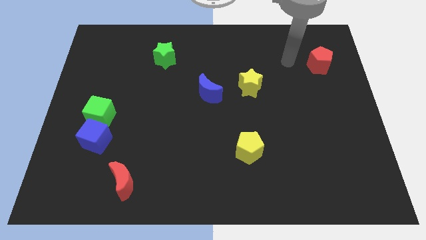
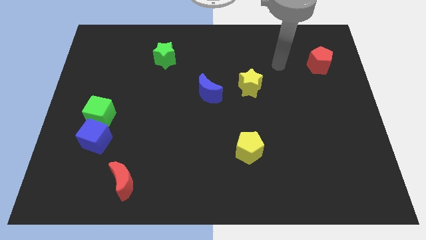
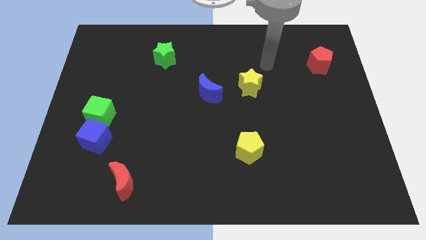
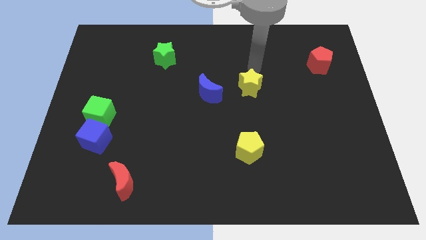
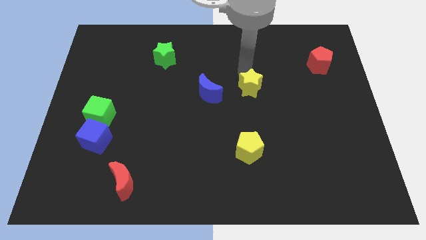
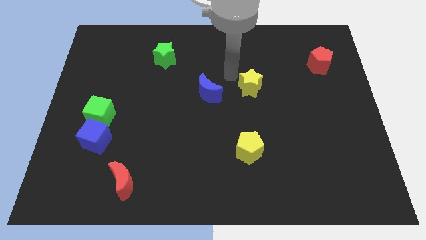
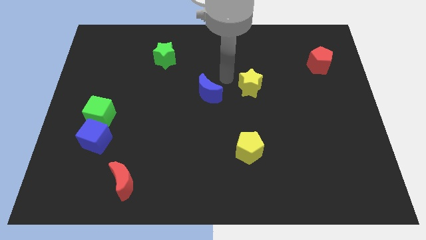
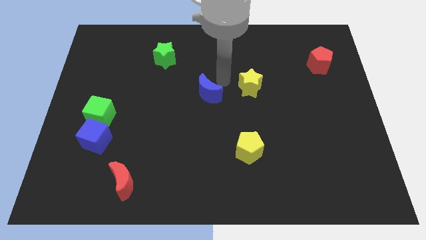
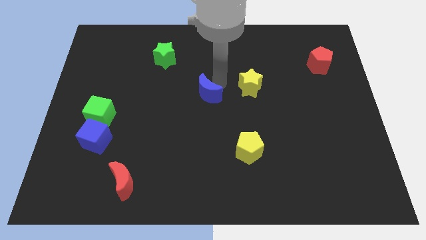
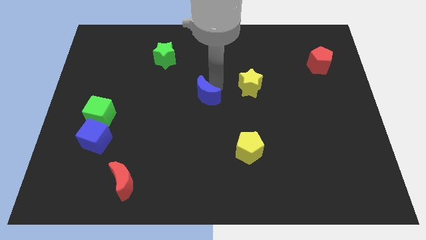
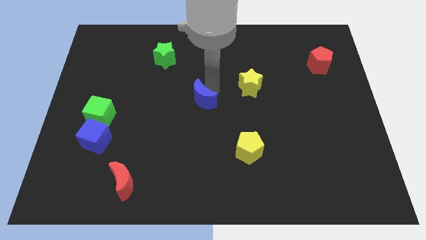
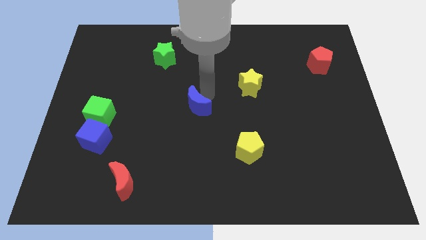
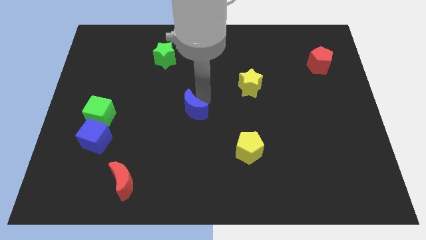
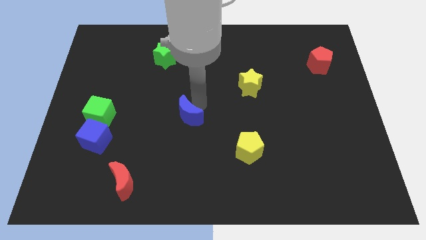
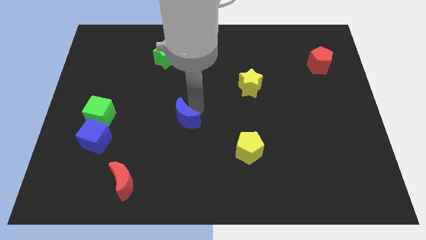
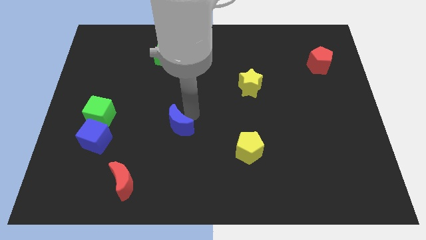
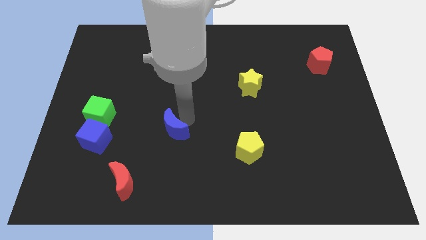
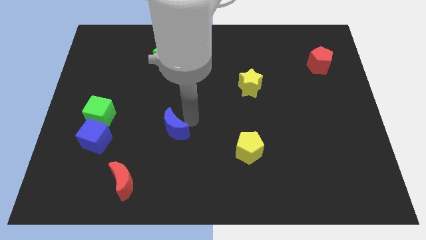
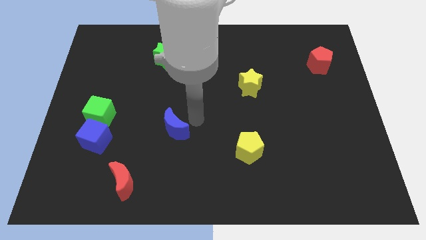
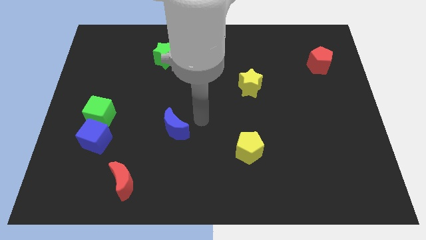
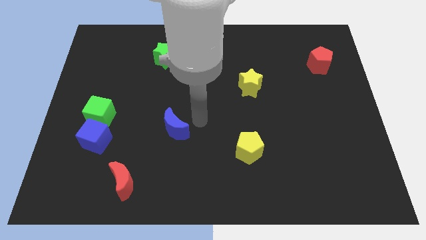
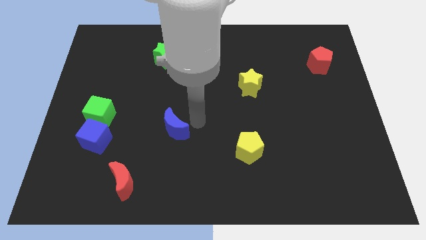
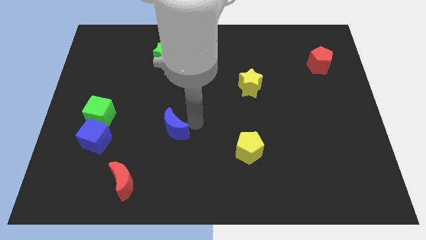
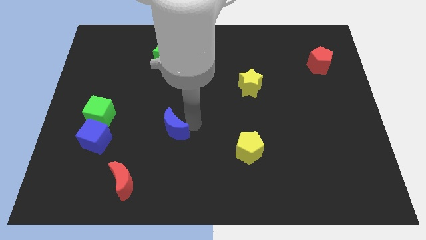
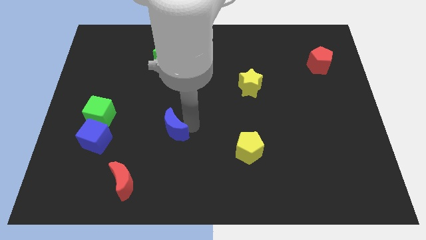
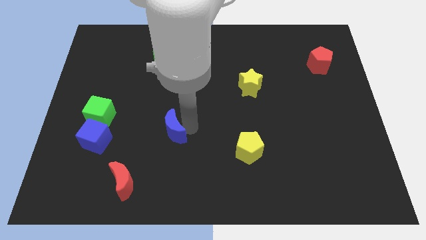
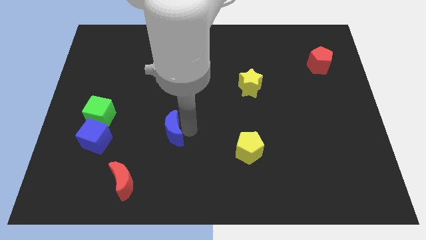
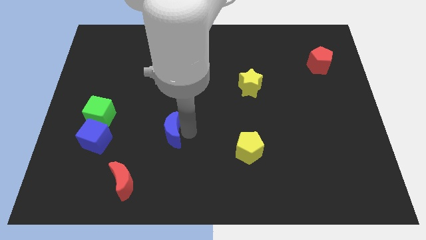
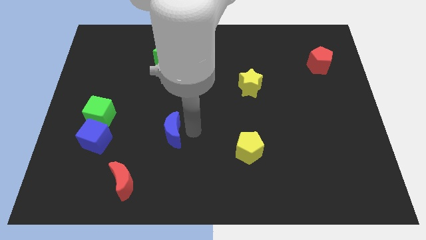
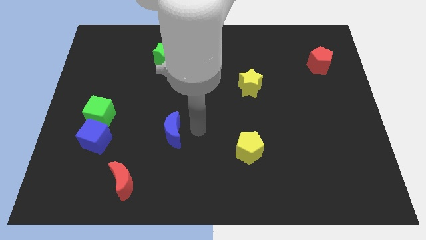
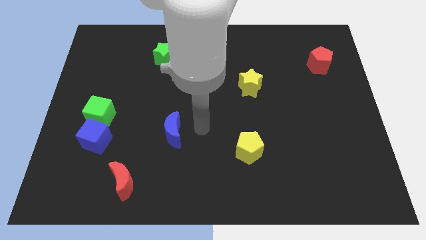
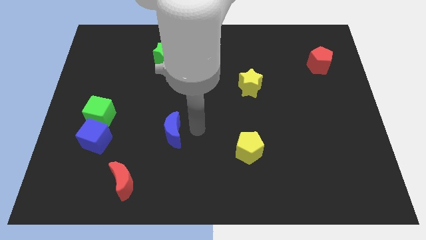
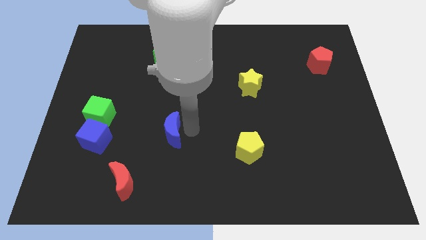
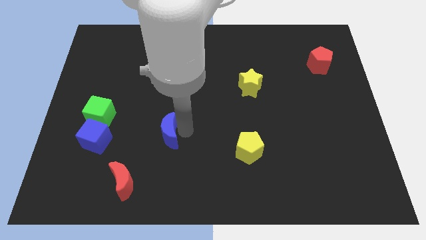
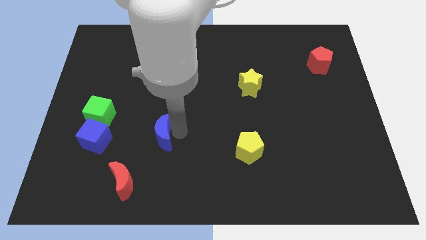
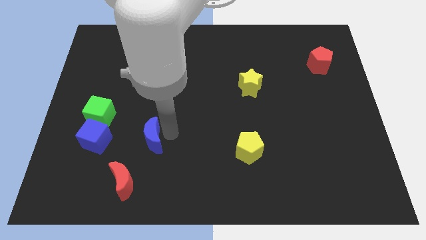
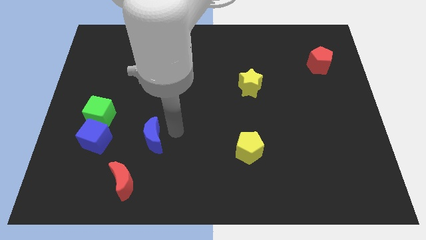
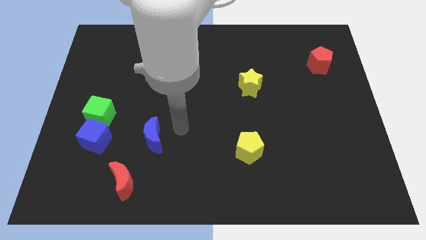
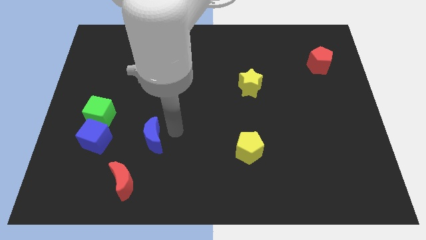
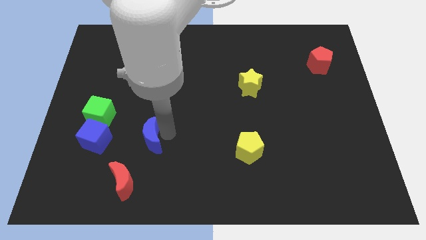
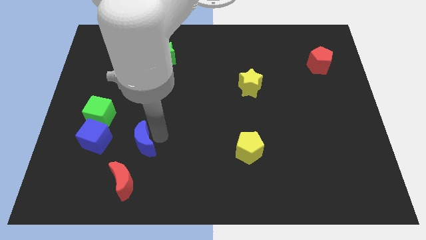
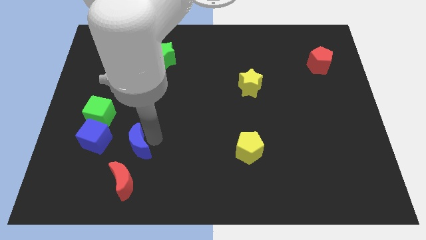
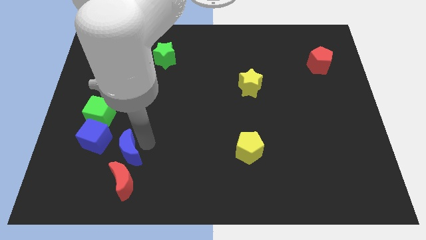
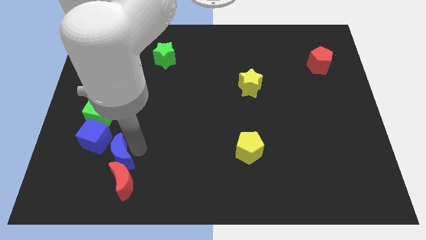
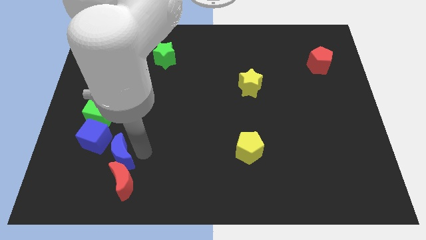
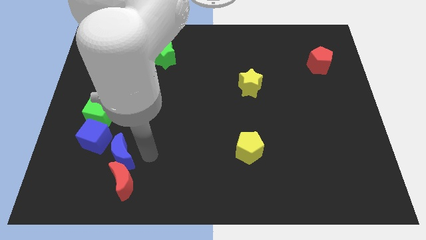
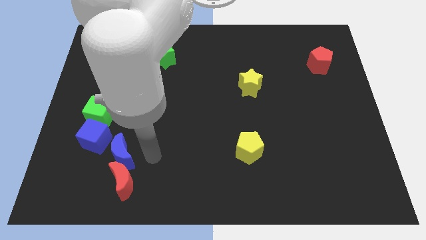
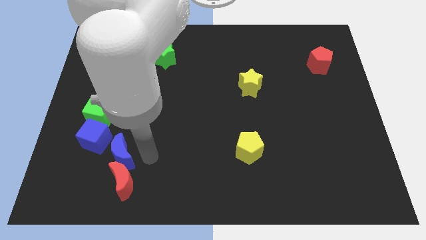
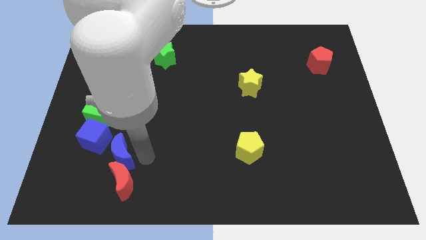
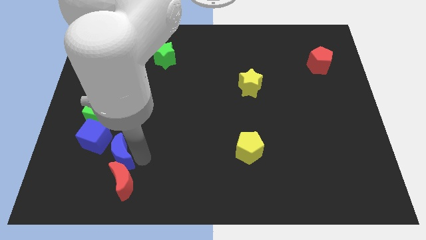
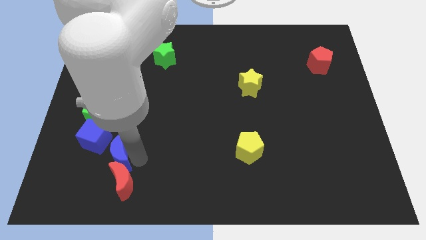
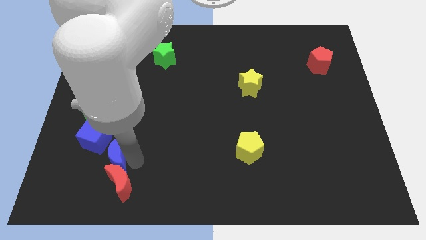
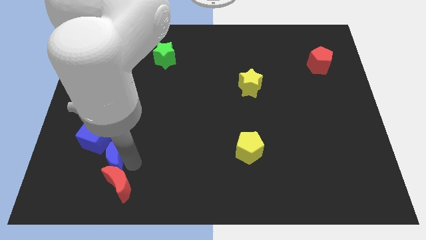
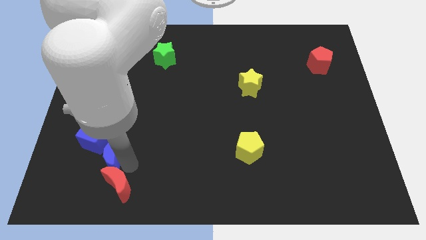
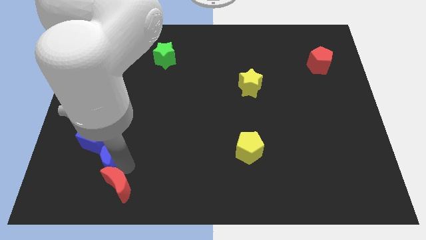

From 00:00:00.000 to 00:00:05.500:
move the blue moon to the bottom side of the green cube

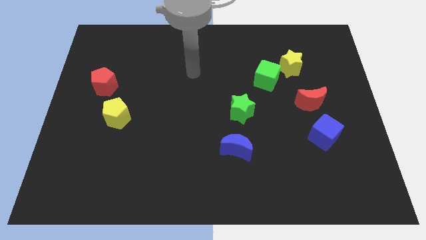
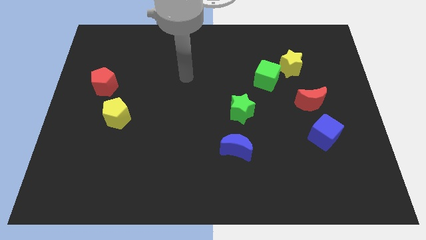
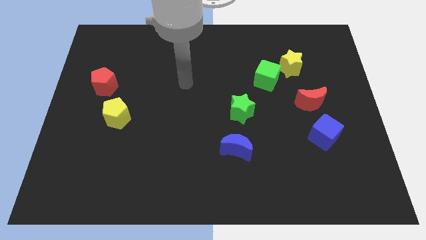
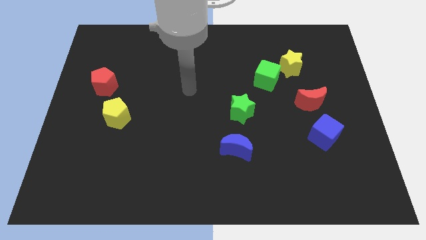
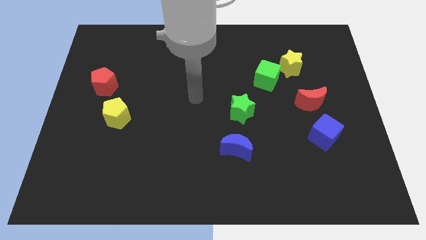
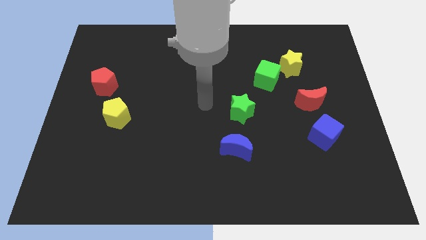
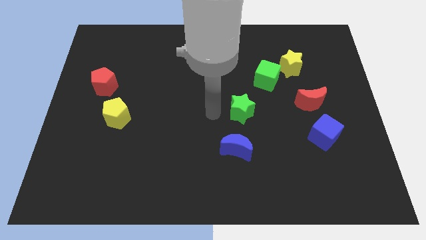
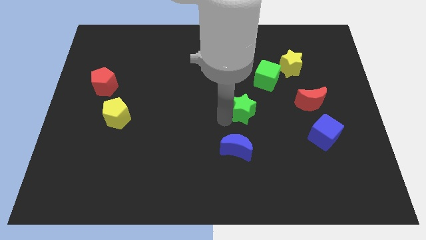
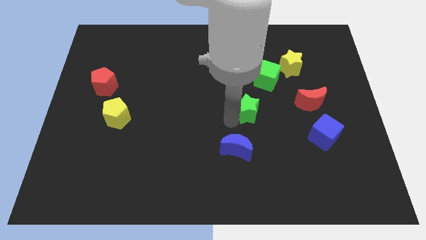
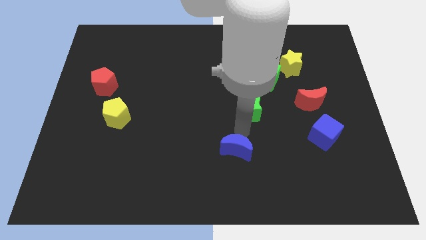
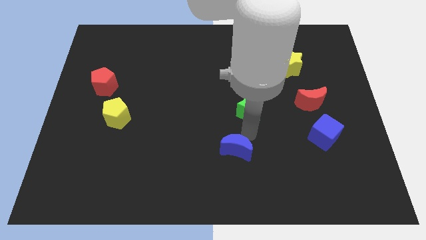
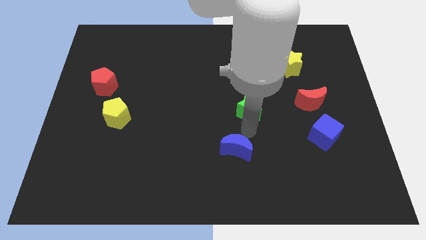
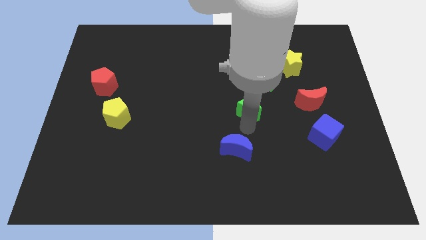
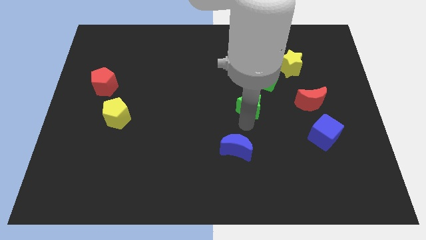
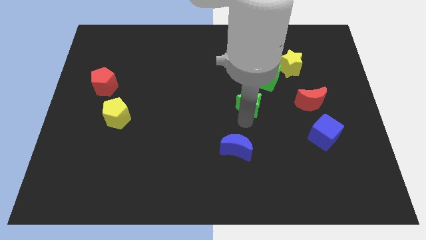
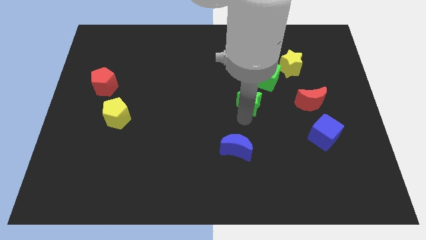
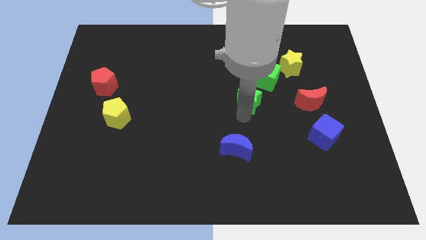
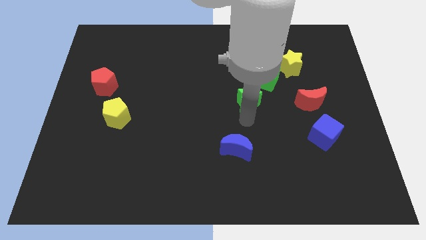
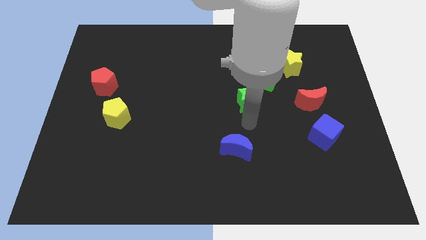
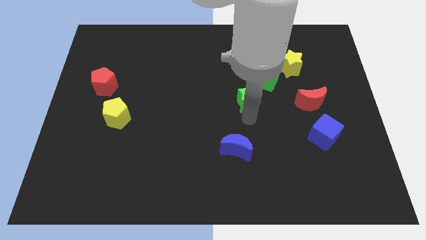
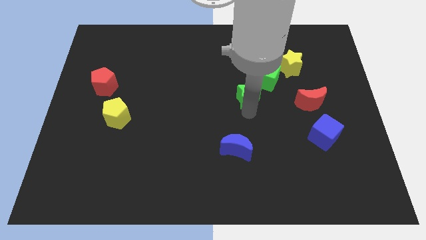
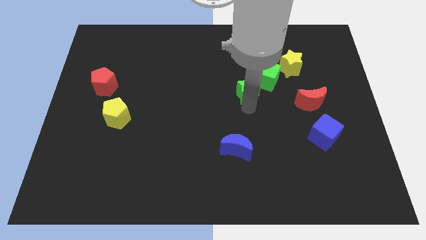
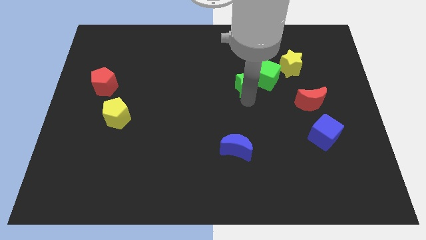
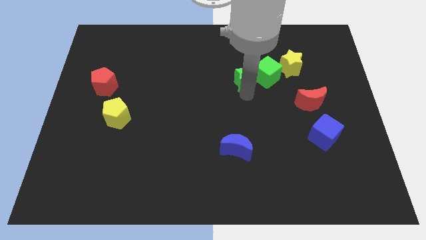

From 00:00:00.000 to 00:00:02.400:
slide the green star to the left of the yellow star
